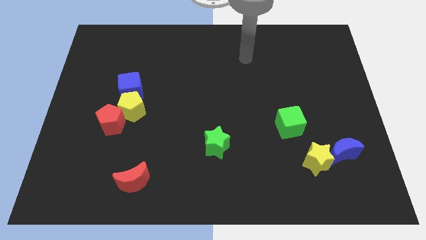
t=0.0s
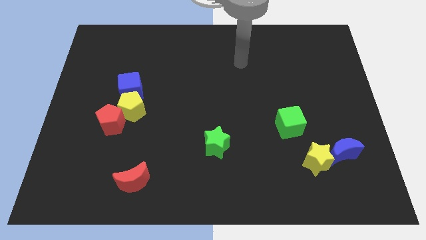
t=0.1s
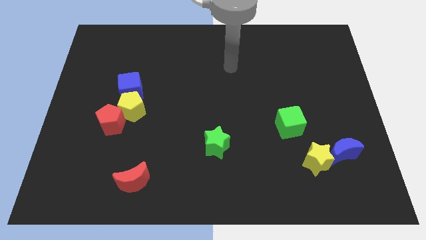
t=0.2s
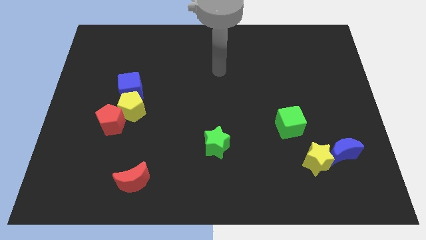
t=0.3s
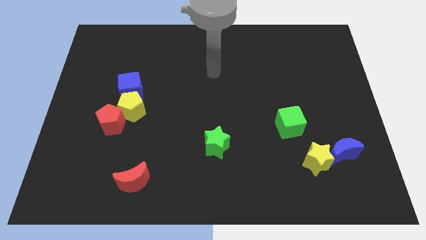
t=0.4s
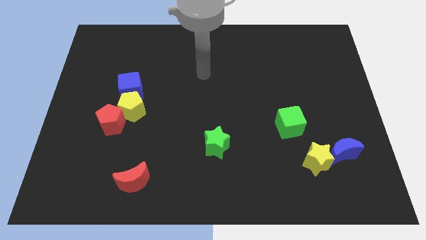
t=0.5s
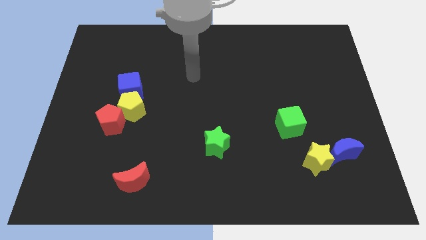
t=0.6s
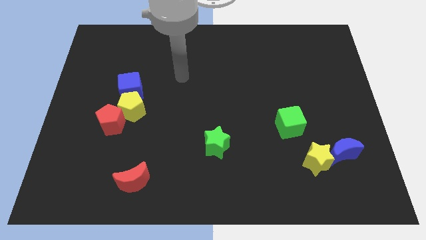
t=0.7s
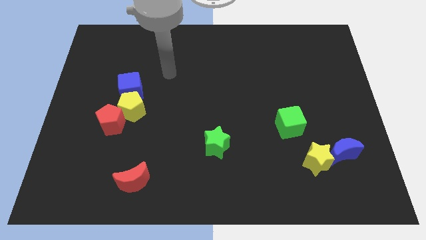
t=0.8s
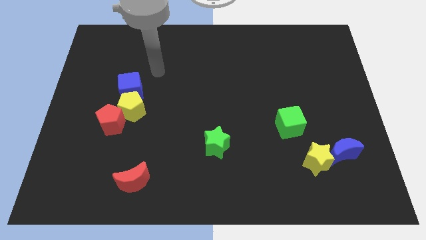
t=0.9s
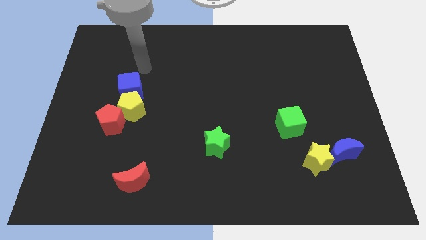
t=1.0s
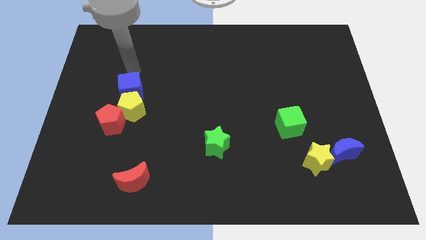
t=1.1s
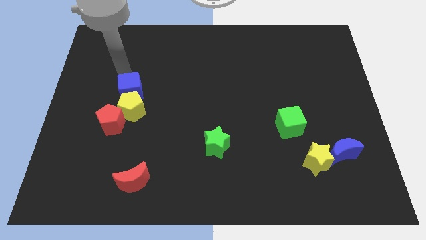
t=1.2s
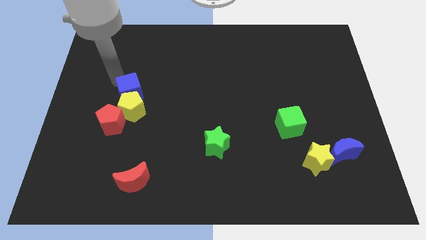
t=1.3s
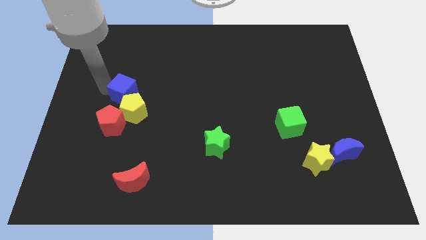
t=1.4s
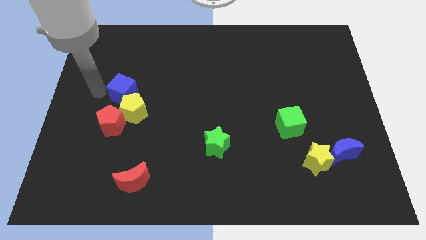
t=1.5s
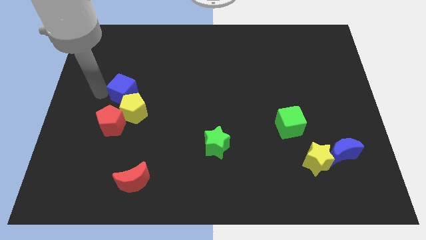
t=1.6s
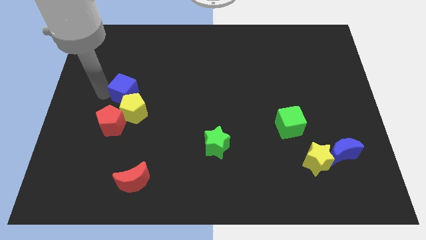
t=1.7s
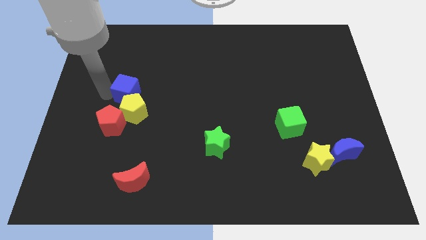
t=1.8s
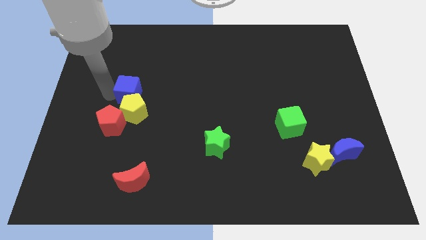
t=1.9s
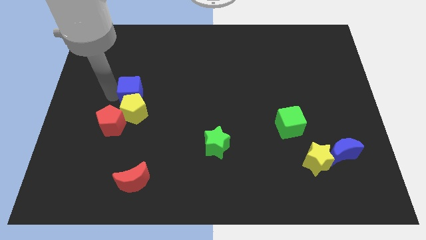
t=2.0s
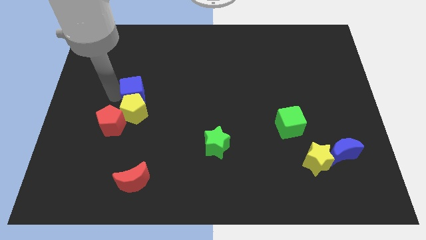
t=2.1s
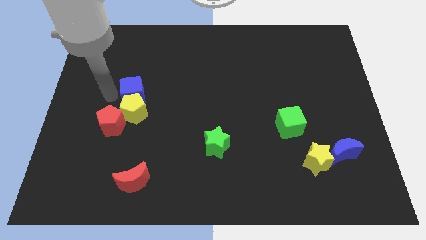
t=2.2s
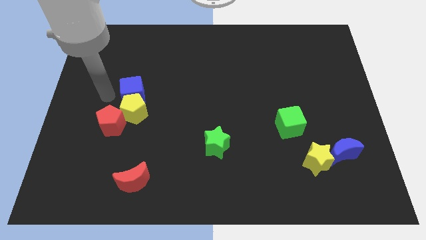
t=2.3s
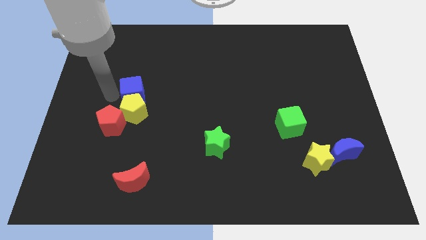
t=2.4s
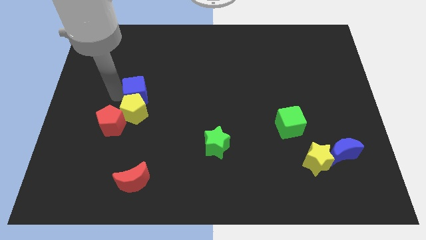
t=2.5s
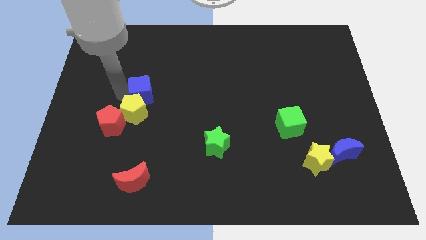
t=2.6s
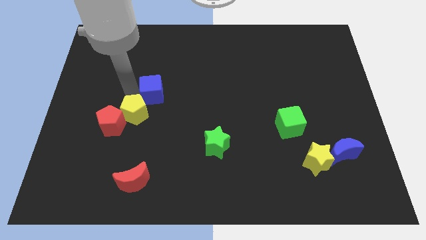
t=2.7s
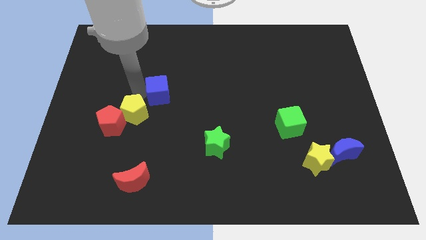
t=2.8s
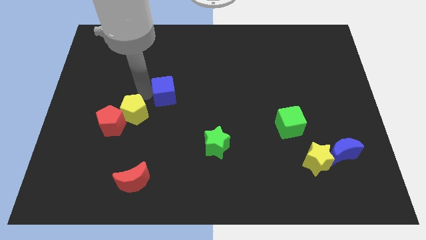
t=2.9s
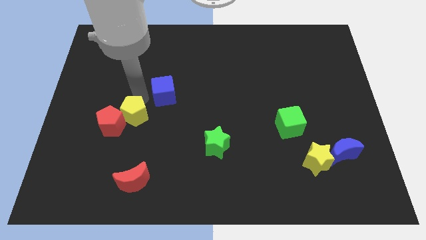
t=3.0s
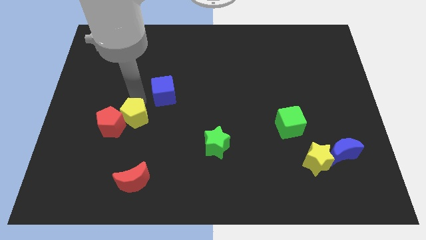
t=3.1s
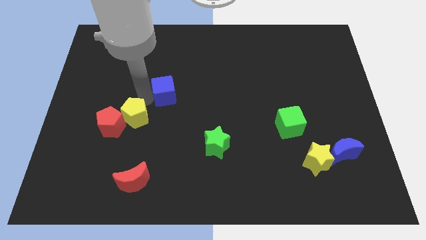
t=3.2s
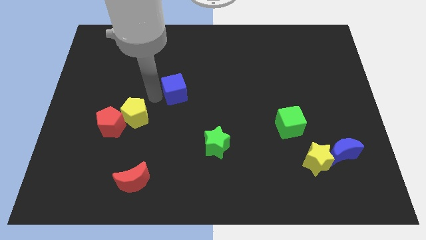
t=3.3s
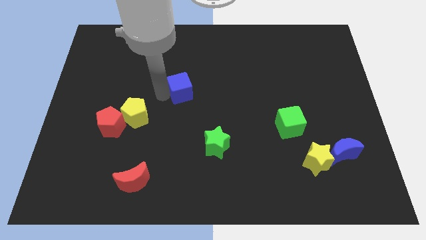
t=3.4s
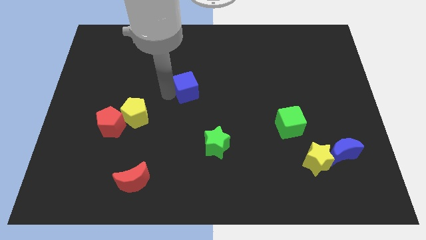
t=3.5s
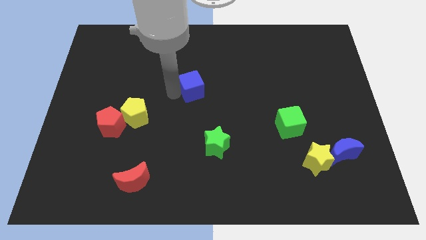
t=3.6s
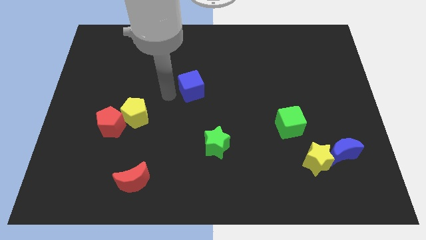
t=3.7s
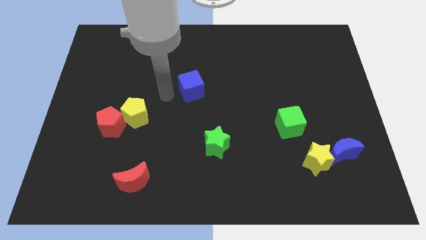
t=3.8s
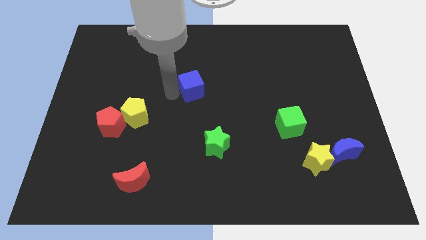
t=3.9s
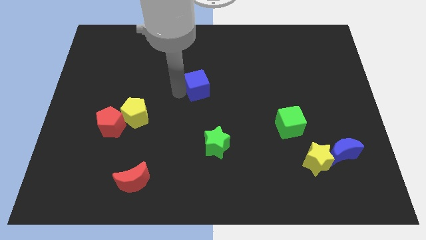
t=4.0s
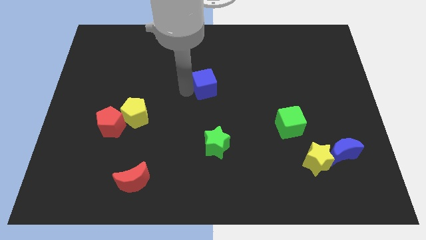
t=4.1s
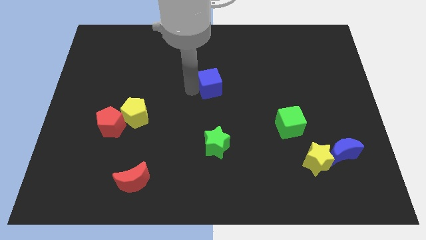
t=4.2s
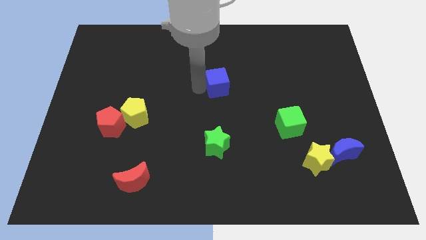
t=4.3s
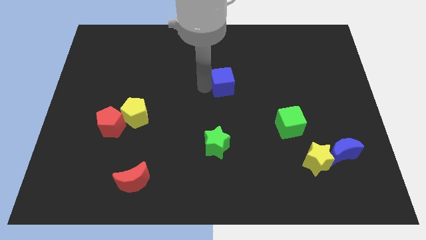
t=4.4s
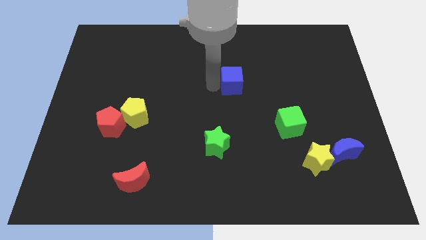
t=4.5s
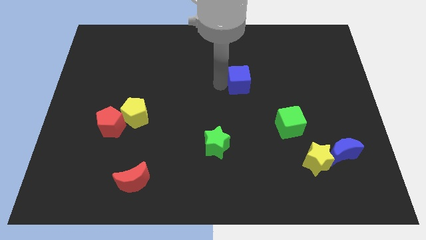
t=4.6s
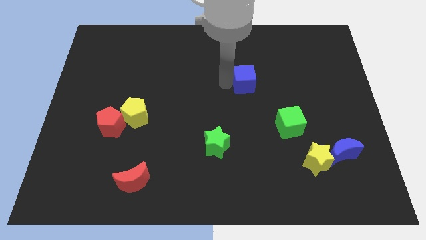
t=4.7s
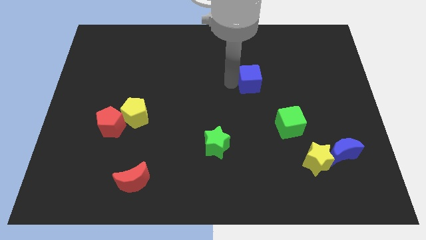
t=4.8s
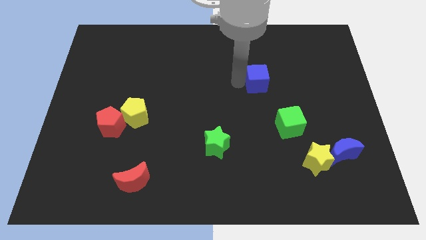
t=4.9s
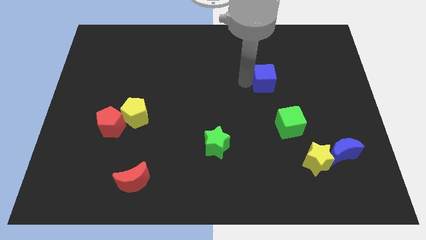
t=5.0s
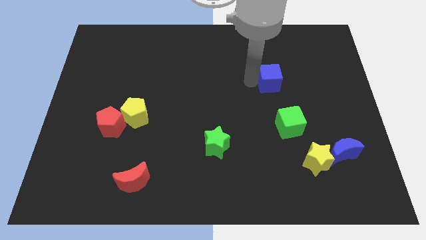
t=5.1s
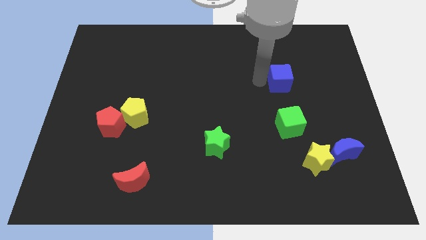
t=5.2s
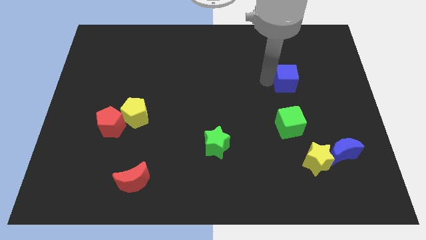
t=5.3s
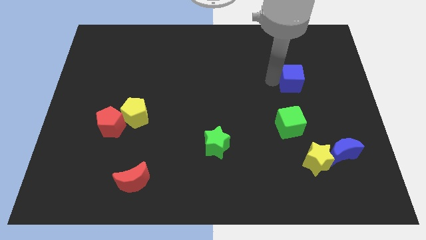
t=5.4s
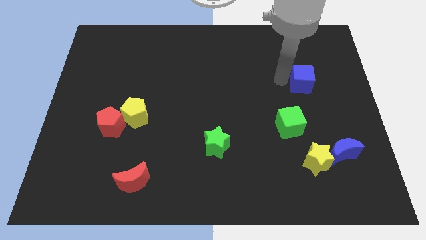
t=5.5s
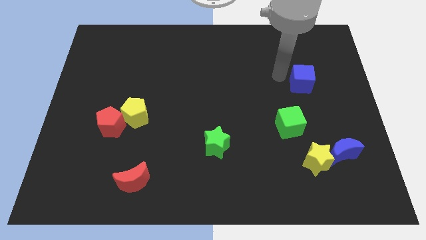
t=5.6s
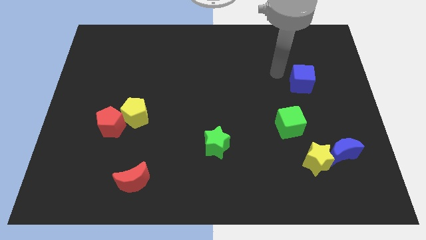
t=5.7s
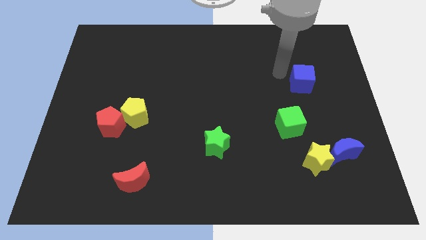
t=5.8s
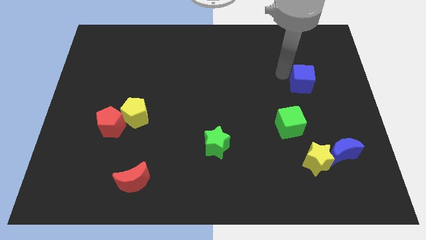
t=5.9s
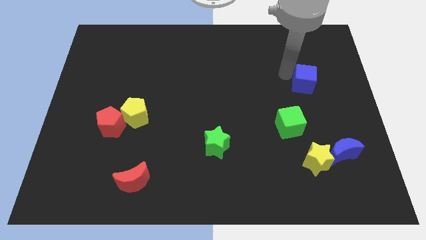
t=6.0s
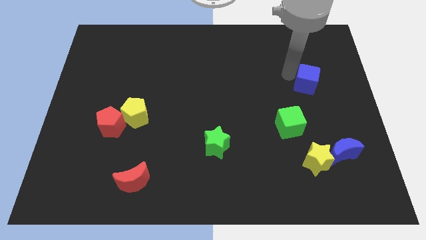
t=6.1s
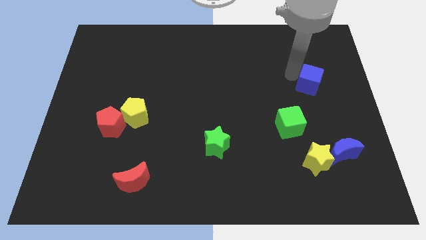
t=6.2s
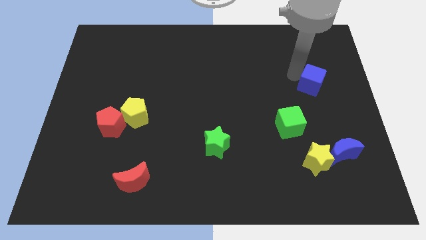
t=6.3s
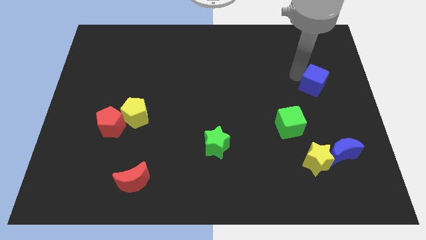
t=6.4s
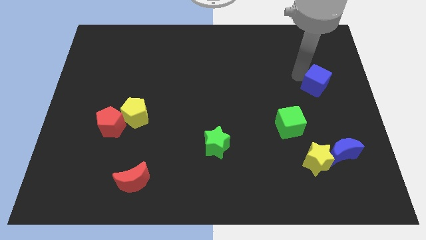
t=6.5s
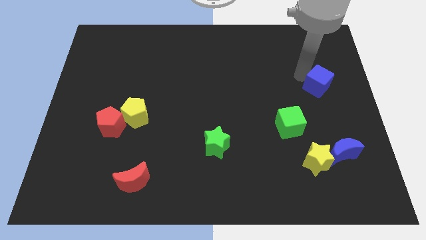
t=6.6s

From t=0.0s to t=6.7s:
put the blue cube to the center right
